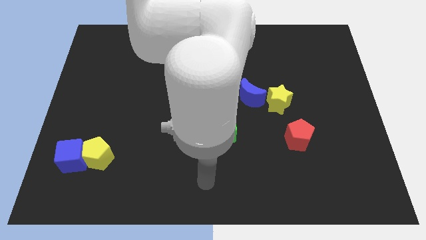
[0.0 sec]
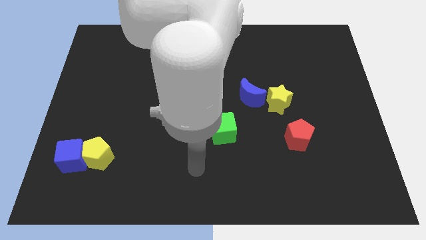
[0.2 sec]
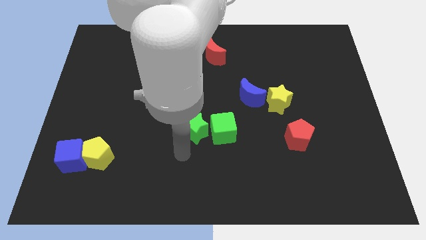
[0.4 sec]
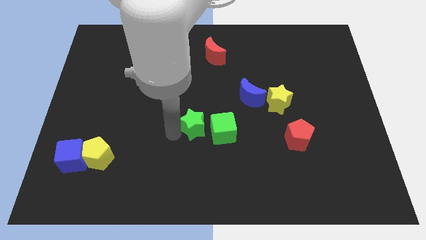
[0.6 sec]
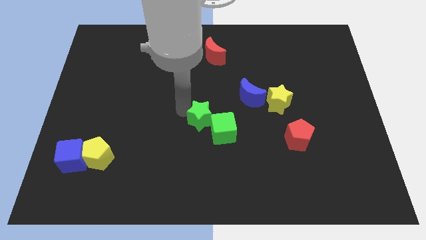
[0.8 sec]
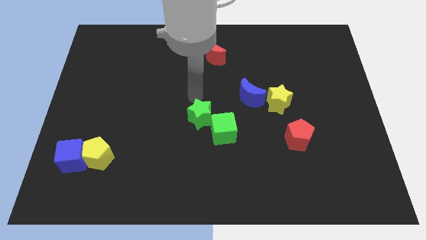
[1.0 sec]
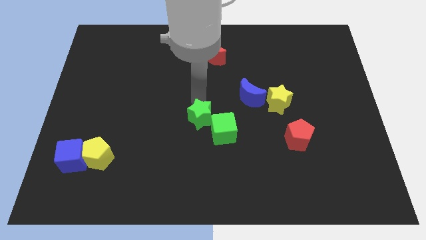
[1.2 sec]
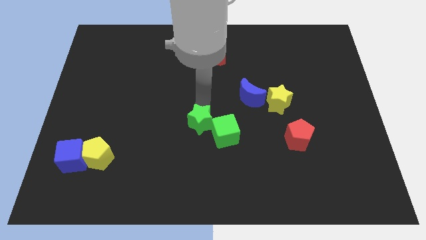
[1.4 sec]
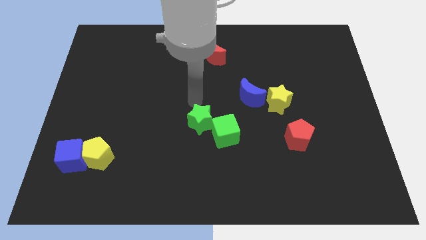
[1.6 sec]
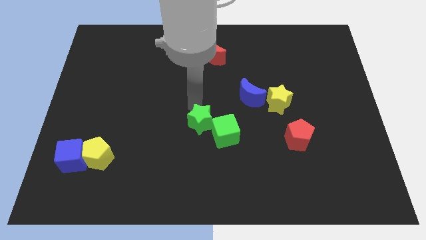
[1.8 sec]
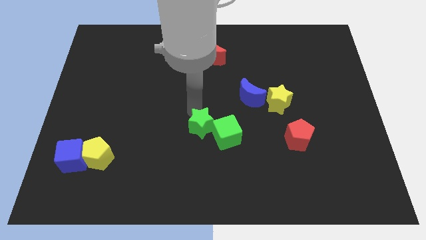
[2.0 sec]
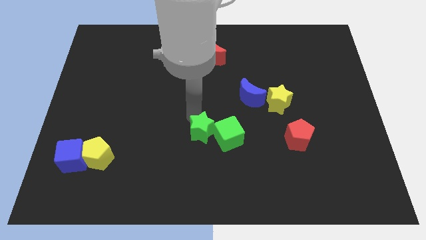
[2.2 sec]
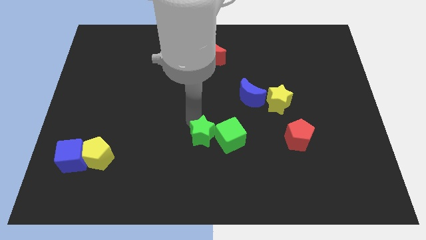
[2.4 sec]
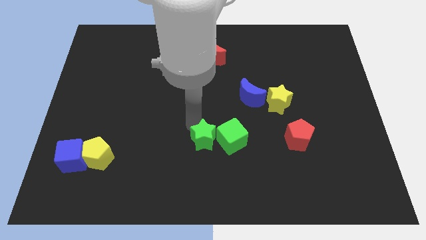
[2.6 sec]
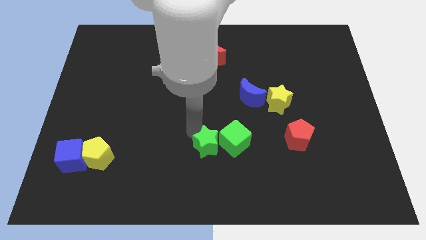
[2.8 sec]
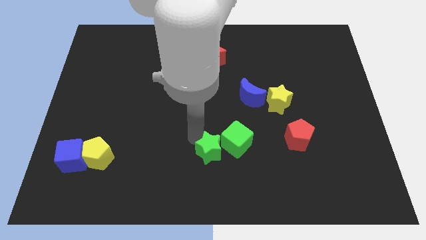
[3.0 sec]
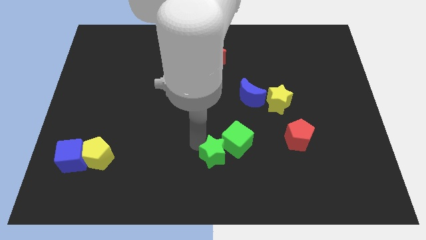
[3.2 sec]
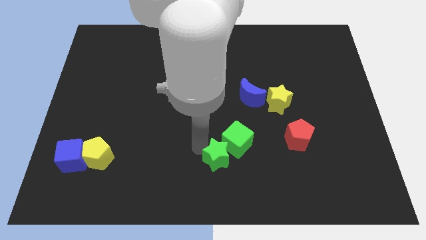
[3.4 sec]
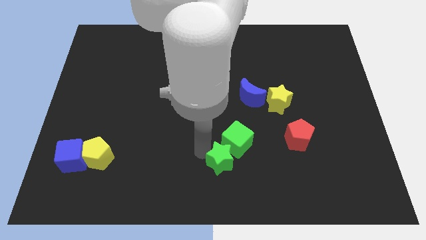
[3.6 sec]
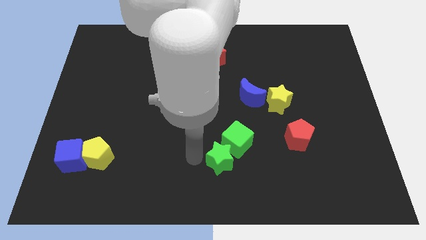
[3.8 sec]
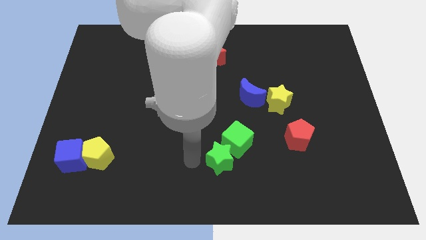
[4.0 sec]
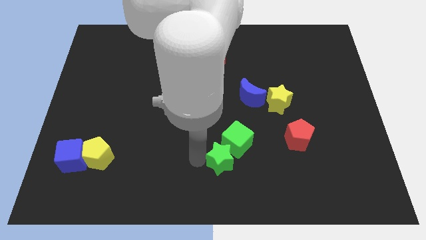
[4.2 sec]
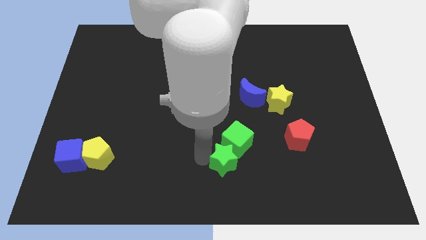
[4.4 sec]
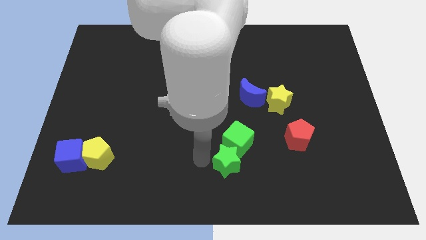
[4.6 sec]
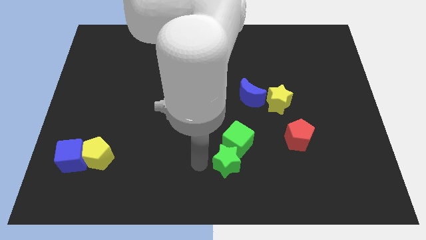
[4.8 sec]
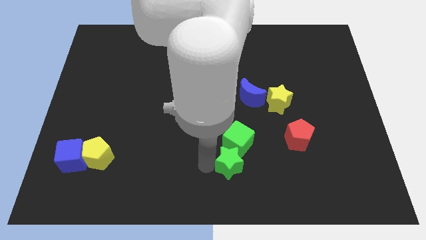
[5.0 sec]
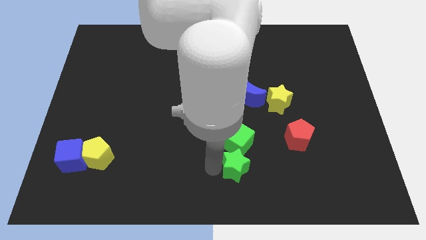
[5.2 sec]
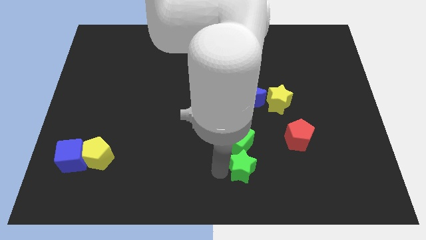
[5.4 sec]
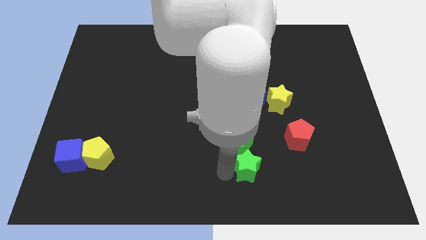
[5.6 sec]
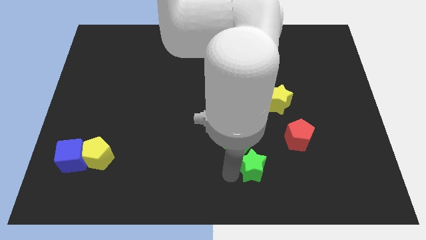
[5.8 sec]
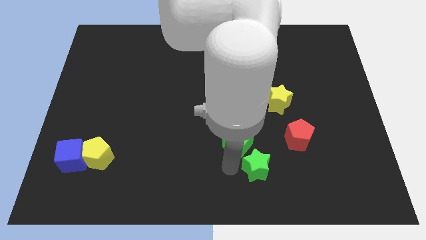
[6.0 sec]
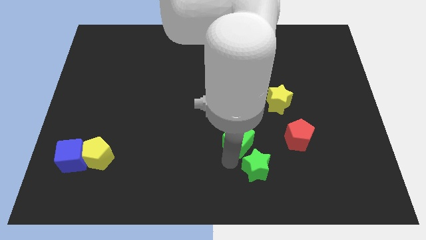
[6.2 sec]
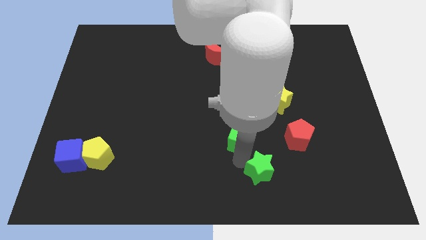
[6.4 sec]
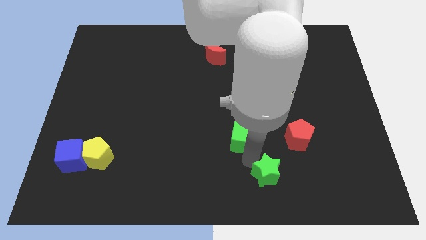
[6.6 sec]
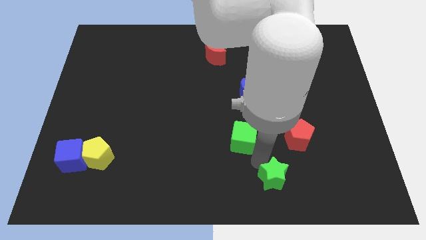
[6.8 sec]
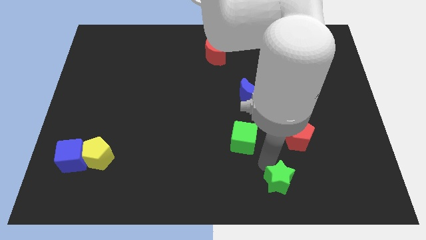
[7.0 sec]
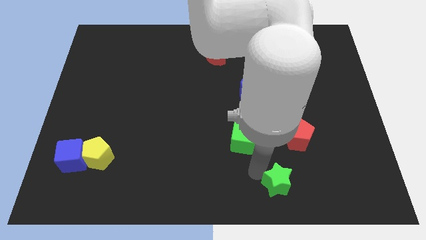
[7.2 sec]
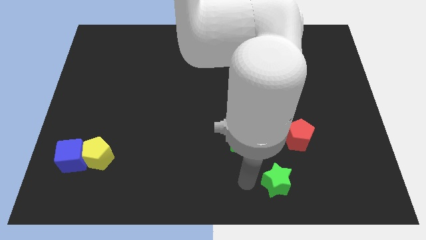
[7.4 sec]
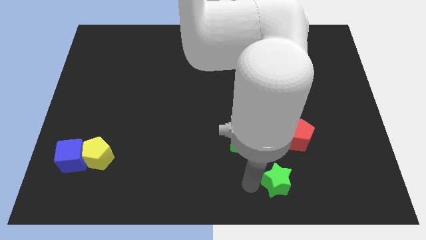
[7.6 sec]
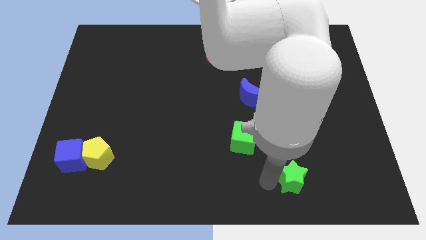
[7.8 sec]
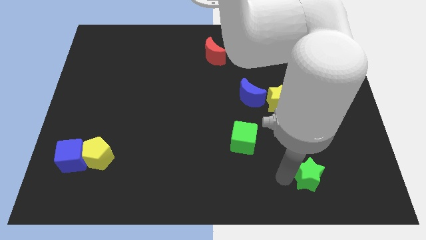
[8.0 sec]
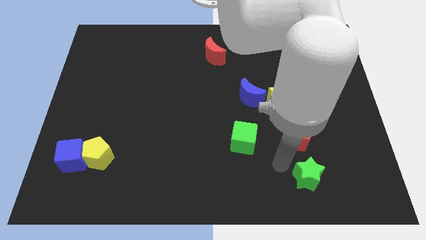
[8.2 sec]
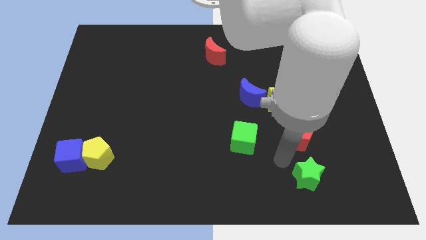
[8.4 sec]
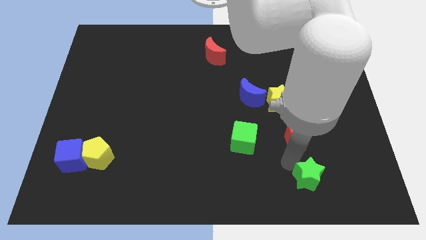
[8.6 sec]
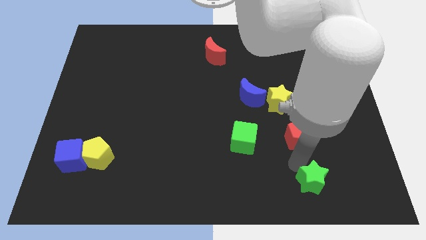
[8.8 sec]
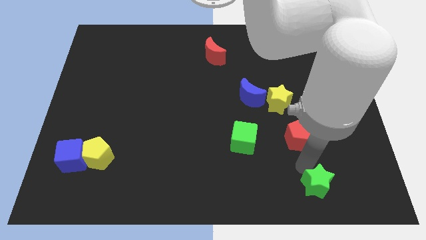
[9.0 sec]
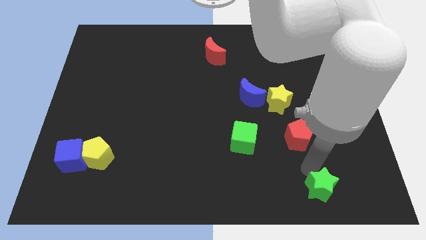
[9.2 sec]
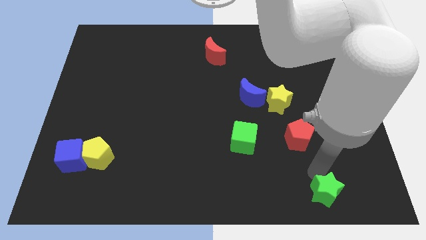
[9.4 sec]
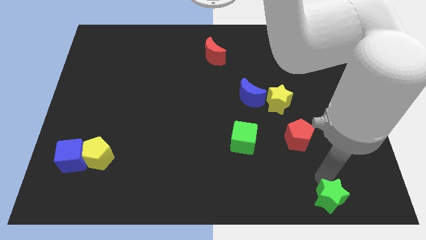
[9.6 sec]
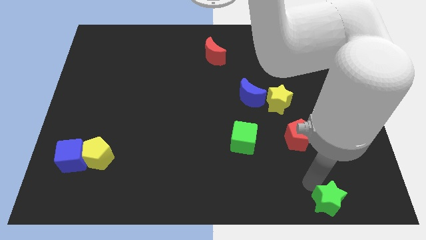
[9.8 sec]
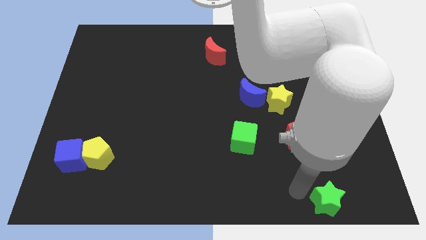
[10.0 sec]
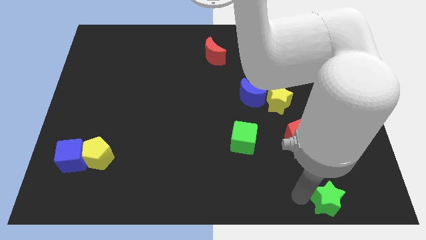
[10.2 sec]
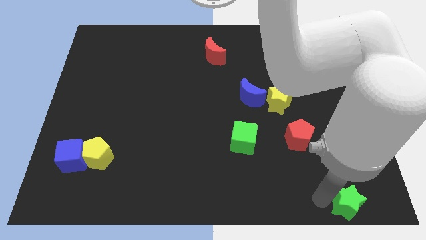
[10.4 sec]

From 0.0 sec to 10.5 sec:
put the green star to the bottom right of the board

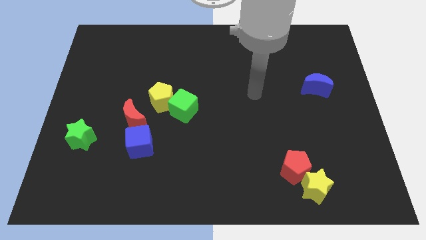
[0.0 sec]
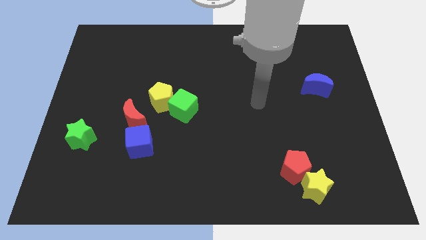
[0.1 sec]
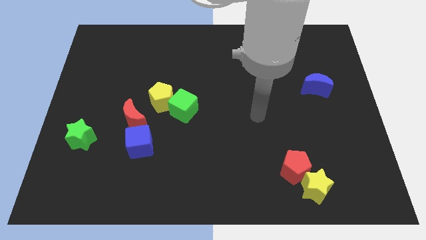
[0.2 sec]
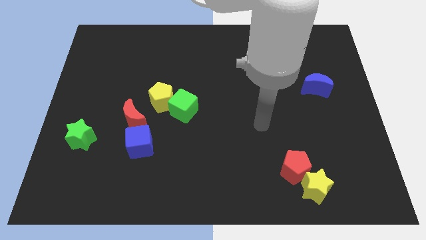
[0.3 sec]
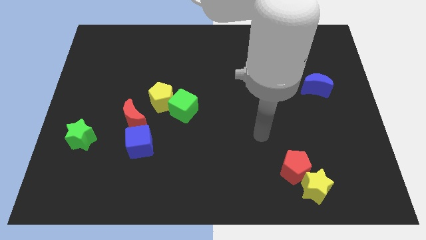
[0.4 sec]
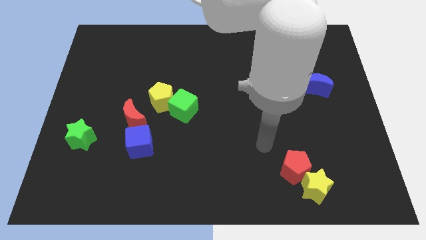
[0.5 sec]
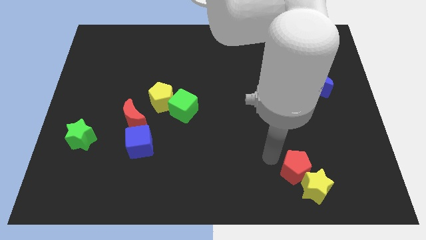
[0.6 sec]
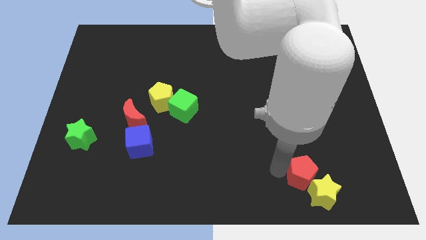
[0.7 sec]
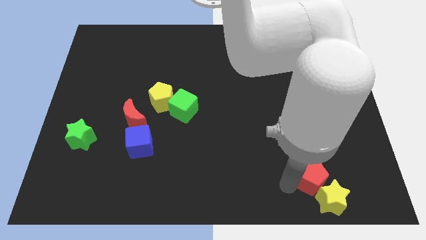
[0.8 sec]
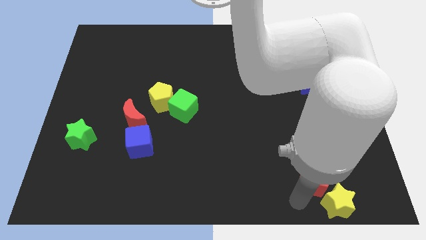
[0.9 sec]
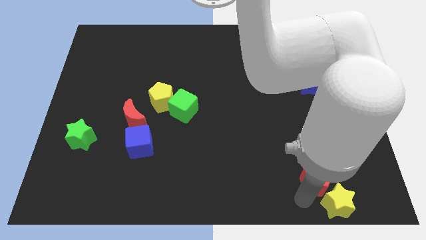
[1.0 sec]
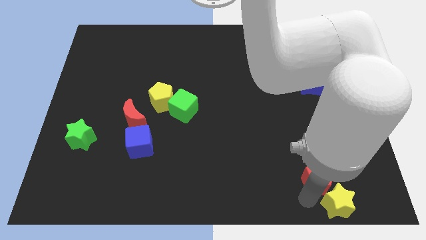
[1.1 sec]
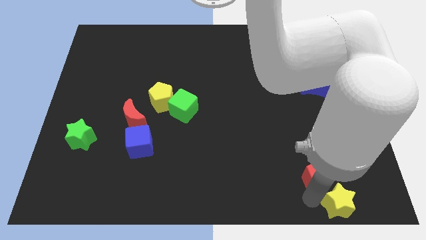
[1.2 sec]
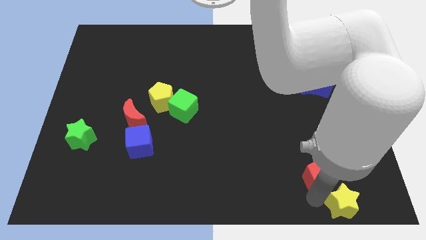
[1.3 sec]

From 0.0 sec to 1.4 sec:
put the yellow star to the bottom right corner

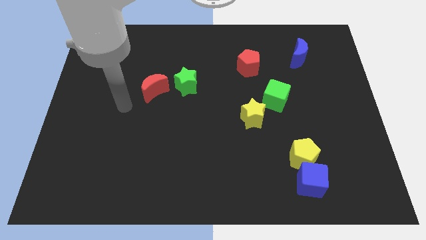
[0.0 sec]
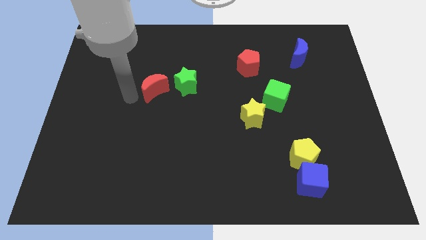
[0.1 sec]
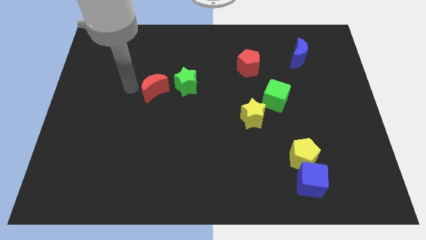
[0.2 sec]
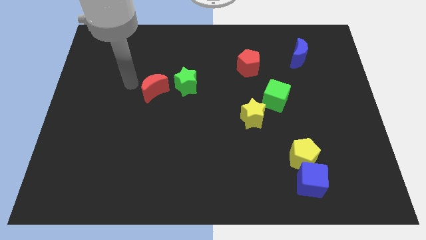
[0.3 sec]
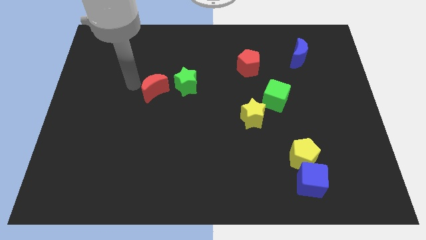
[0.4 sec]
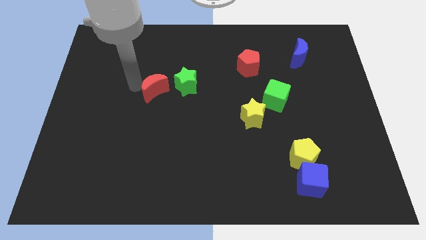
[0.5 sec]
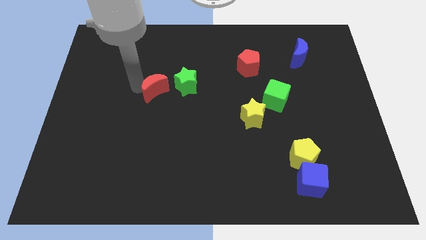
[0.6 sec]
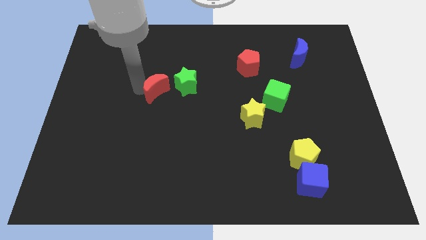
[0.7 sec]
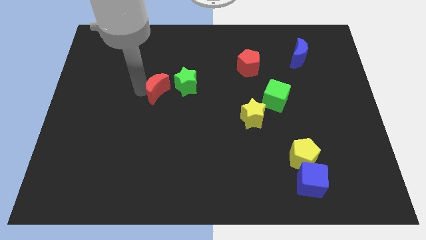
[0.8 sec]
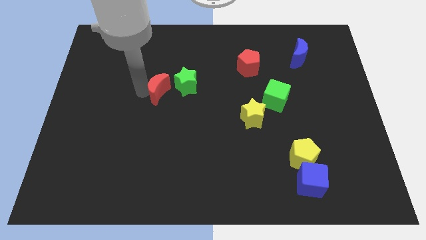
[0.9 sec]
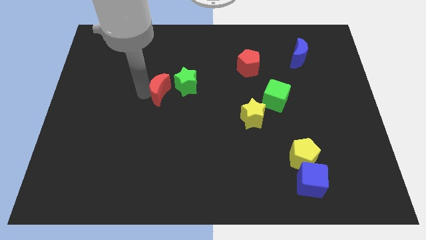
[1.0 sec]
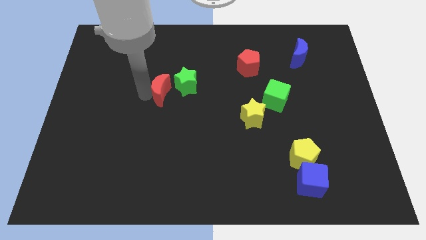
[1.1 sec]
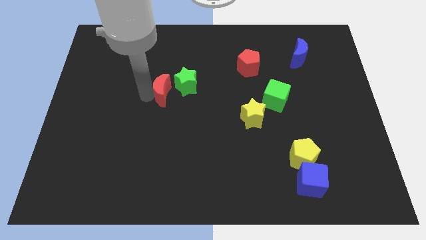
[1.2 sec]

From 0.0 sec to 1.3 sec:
push the red moon to the center
